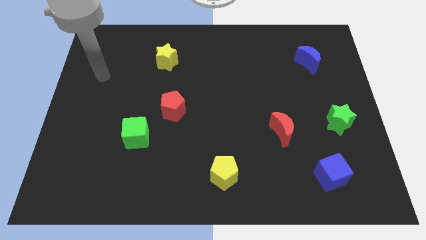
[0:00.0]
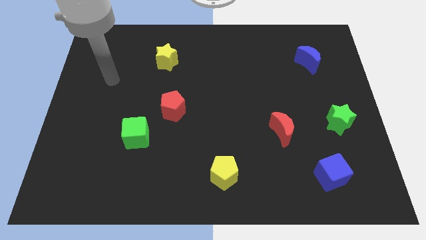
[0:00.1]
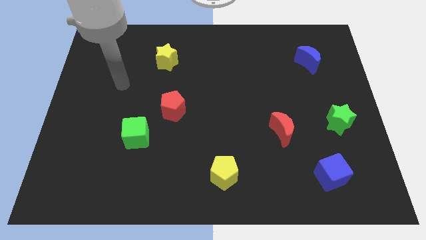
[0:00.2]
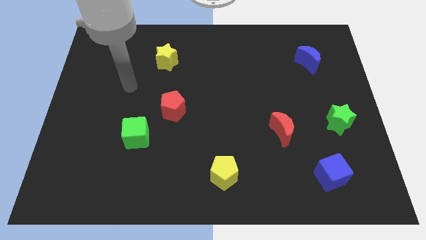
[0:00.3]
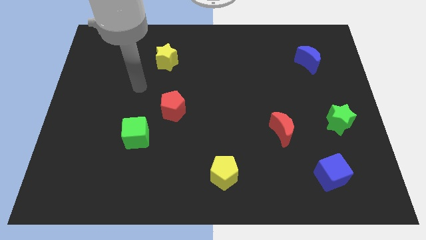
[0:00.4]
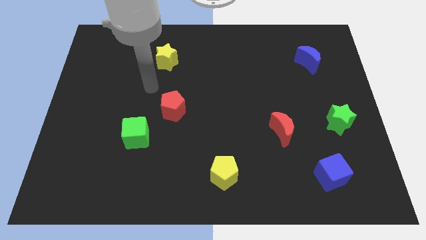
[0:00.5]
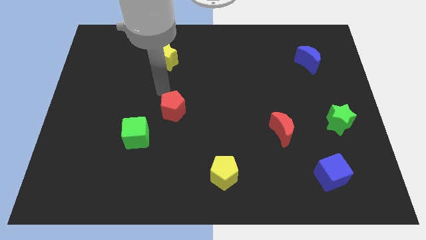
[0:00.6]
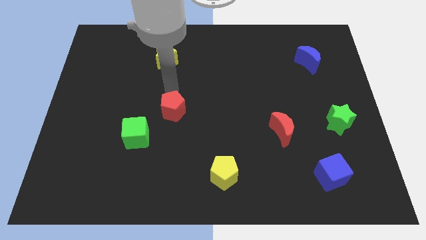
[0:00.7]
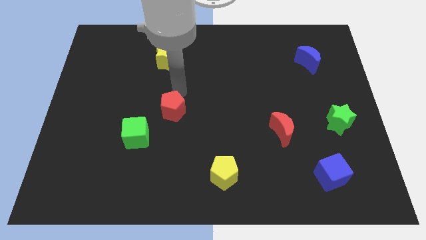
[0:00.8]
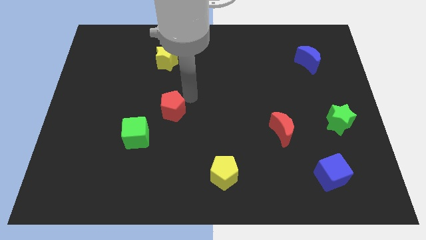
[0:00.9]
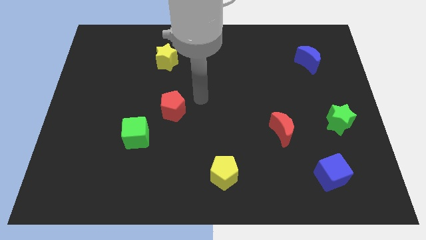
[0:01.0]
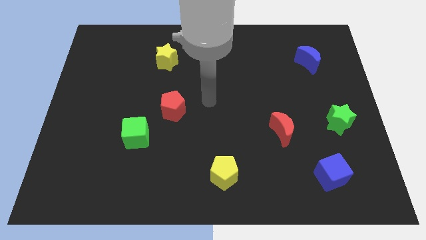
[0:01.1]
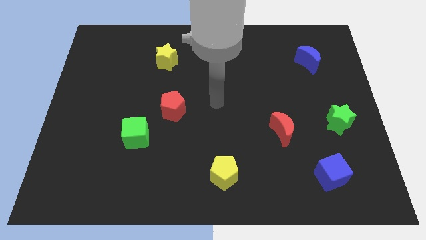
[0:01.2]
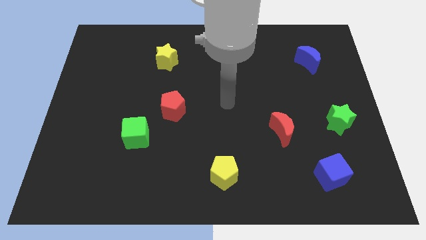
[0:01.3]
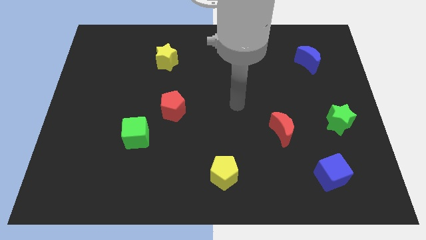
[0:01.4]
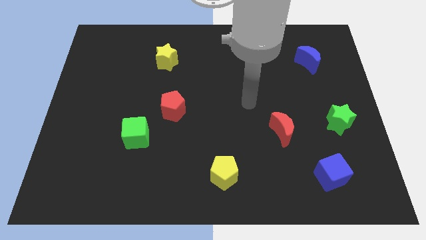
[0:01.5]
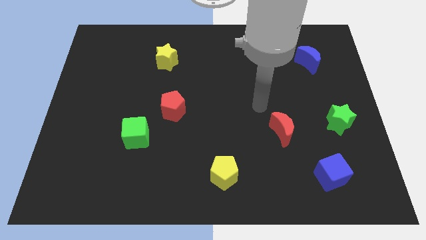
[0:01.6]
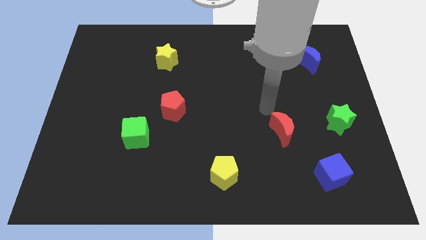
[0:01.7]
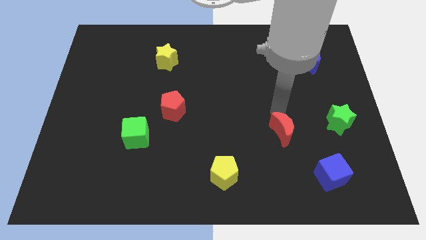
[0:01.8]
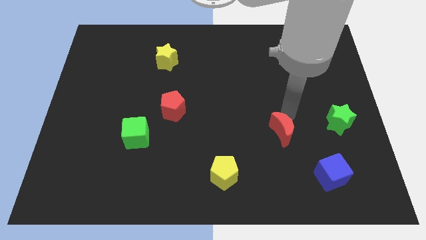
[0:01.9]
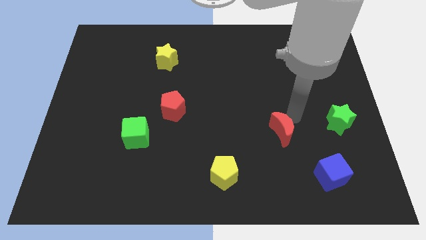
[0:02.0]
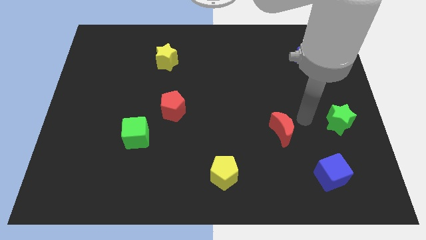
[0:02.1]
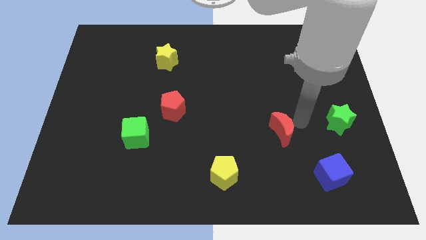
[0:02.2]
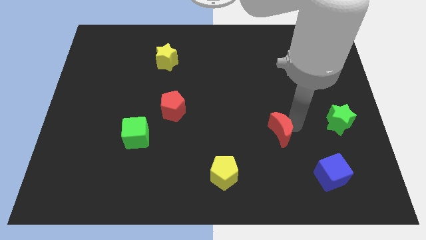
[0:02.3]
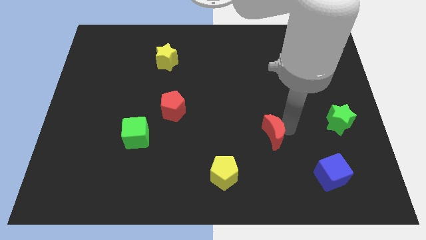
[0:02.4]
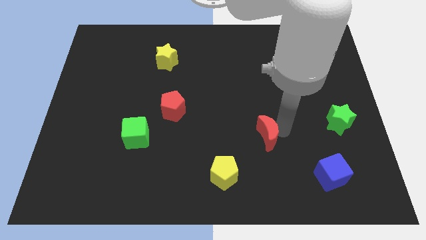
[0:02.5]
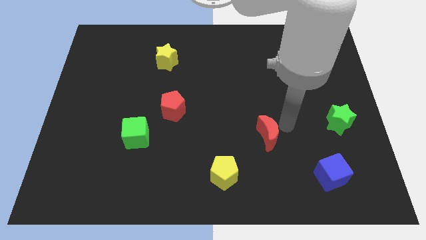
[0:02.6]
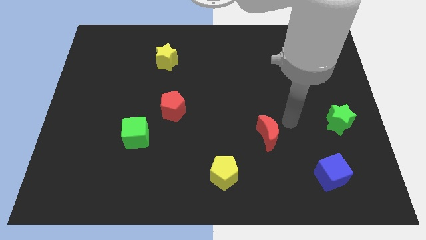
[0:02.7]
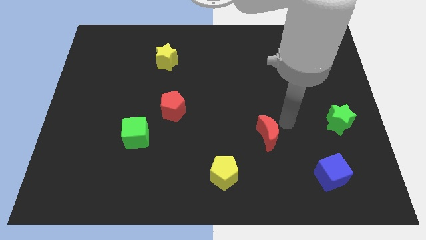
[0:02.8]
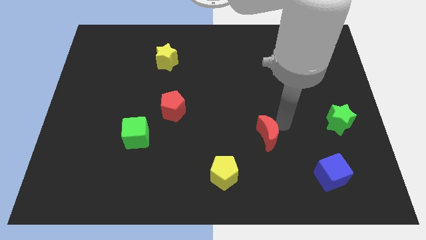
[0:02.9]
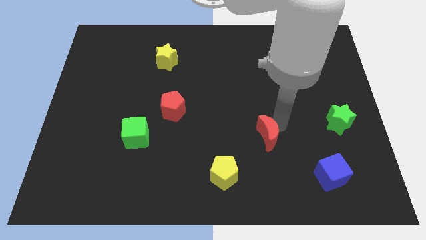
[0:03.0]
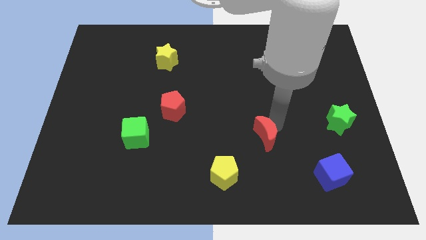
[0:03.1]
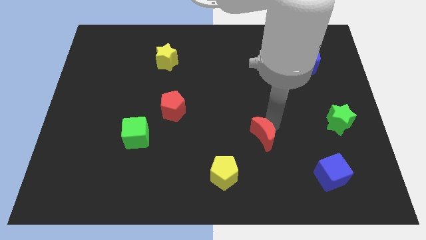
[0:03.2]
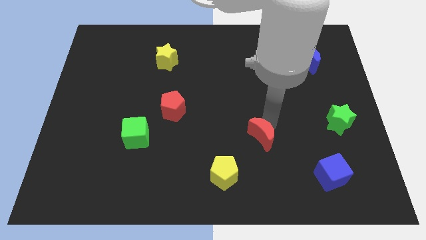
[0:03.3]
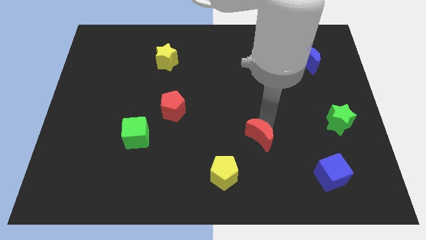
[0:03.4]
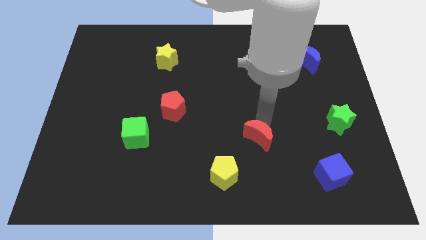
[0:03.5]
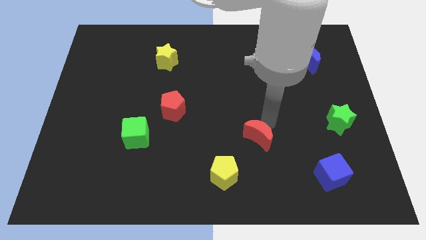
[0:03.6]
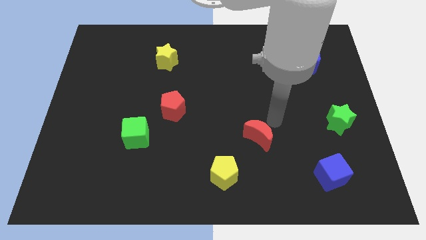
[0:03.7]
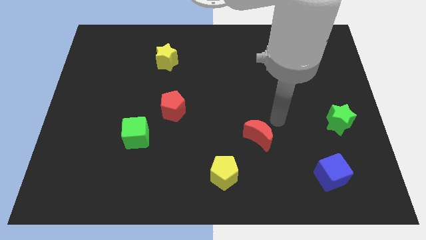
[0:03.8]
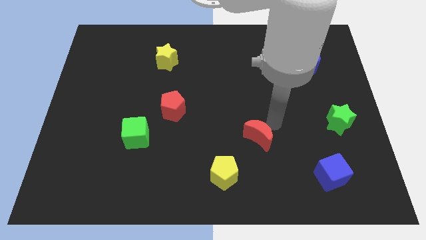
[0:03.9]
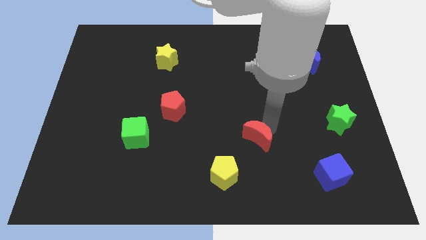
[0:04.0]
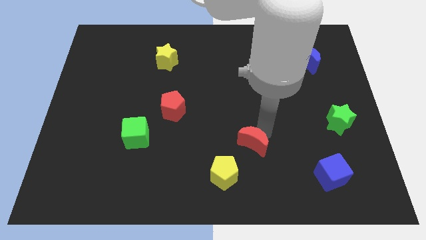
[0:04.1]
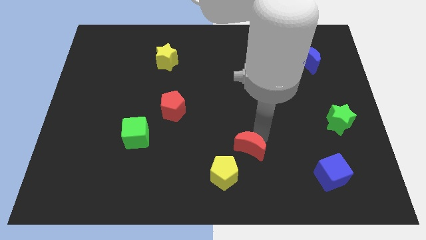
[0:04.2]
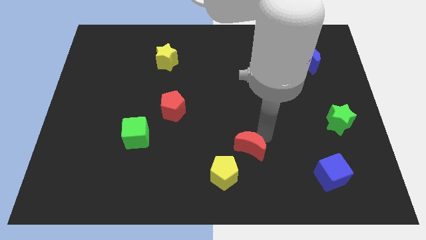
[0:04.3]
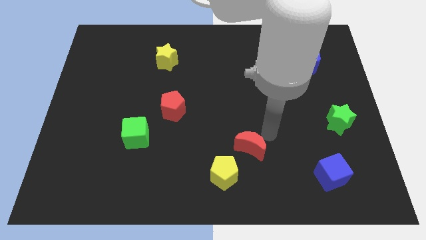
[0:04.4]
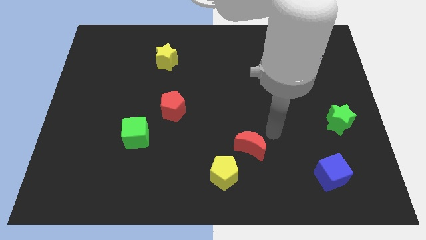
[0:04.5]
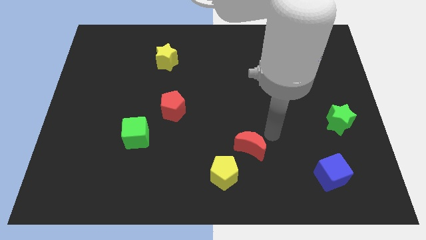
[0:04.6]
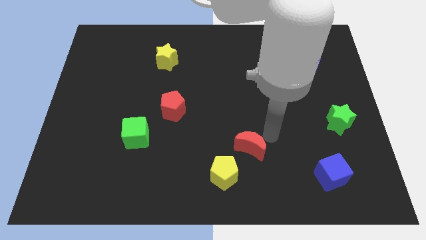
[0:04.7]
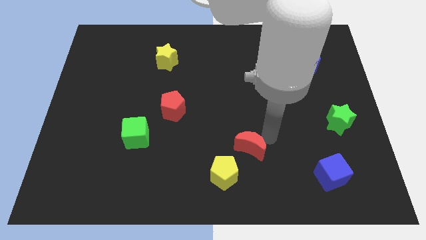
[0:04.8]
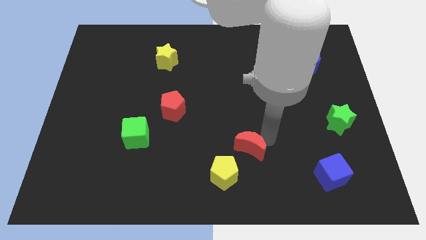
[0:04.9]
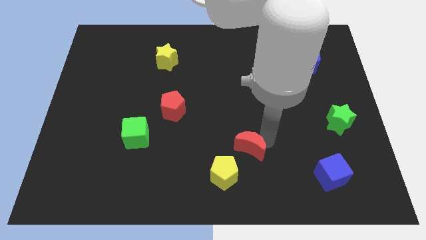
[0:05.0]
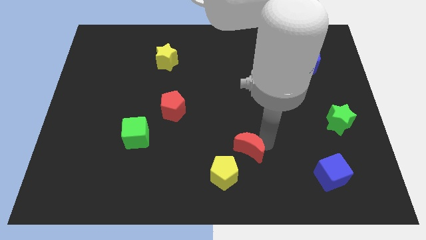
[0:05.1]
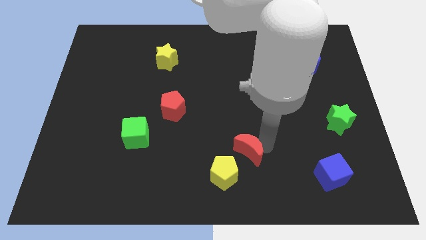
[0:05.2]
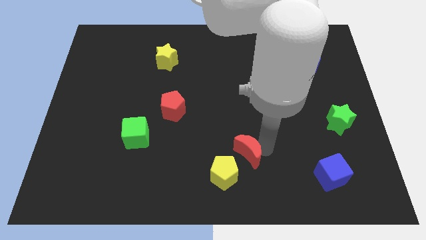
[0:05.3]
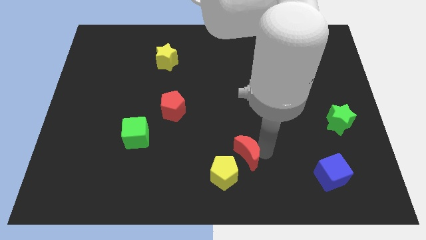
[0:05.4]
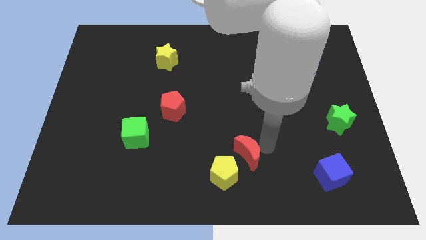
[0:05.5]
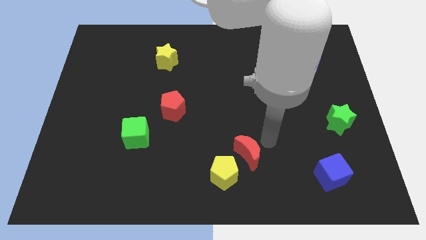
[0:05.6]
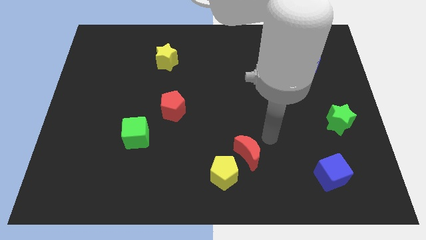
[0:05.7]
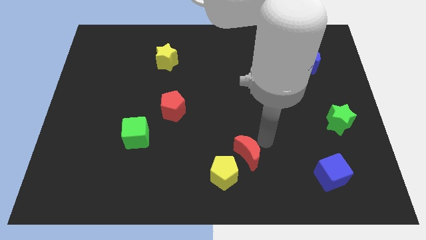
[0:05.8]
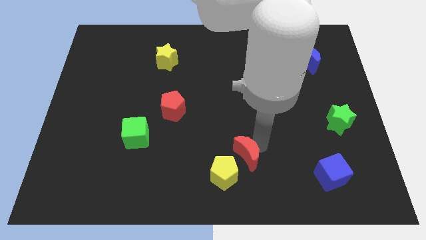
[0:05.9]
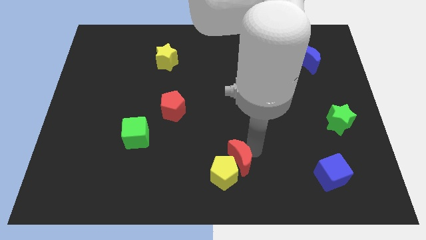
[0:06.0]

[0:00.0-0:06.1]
put the red moon close to the yellow pentagon
